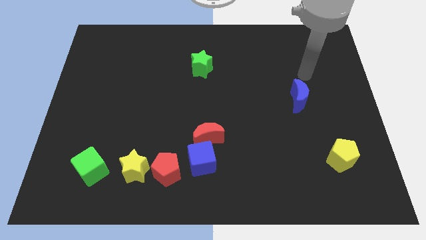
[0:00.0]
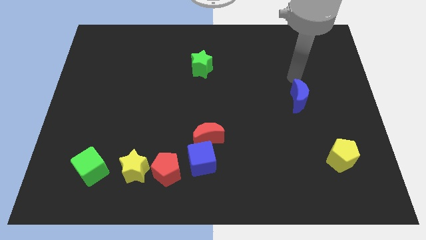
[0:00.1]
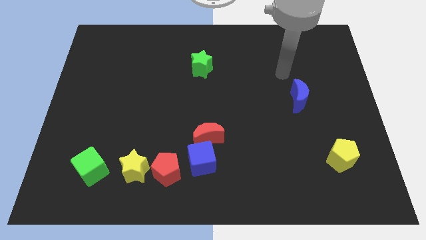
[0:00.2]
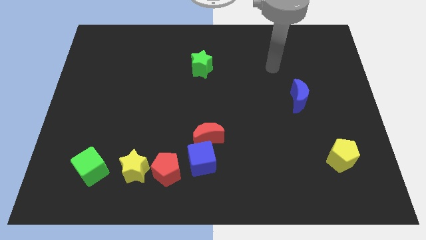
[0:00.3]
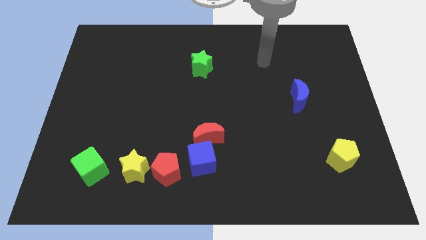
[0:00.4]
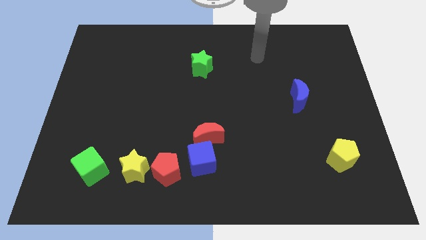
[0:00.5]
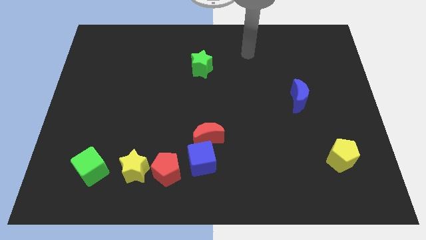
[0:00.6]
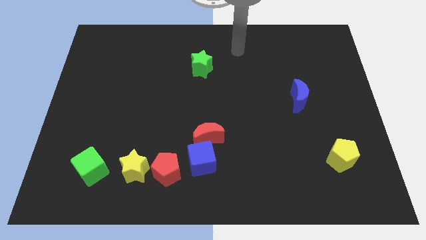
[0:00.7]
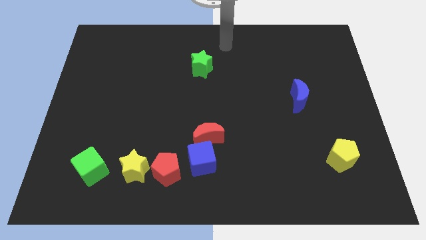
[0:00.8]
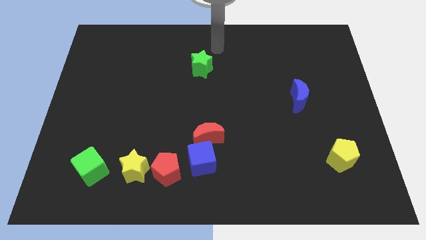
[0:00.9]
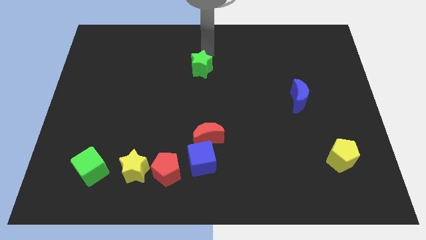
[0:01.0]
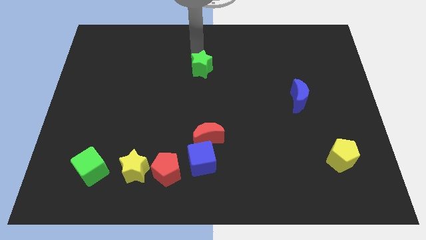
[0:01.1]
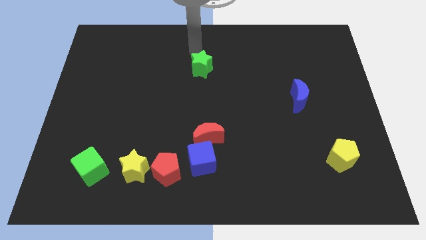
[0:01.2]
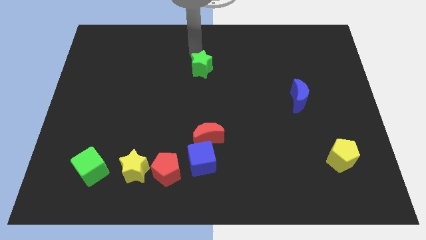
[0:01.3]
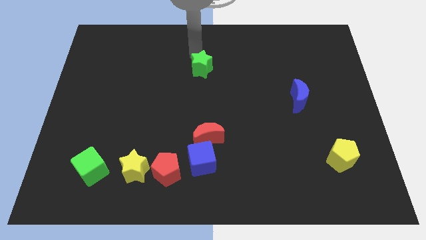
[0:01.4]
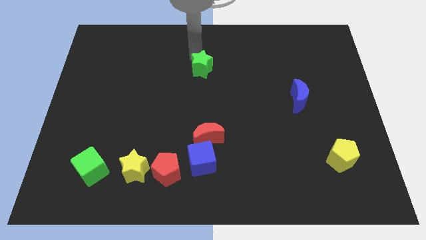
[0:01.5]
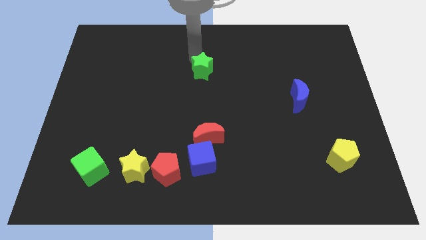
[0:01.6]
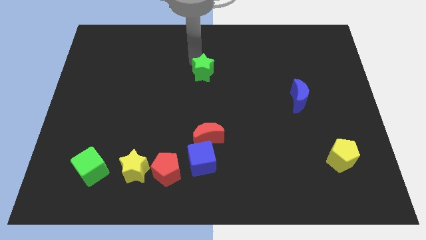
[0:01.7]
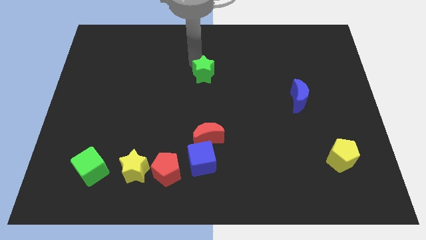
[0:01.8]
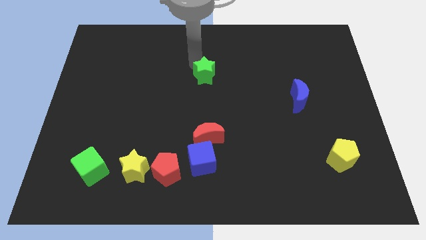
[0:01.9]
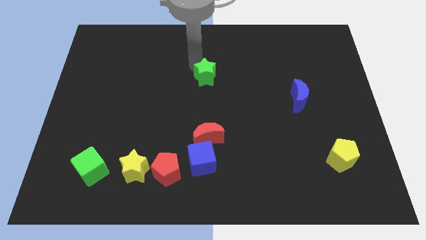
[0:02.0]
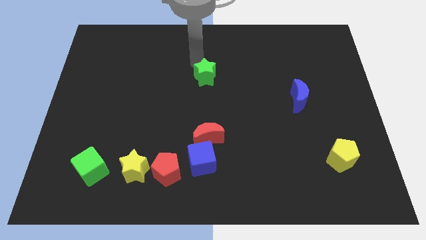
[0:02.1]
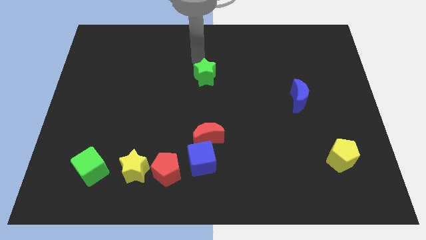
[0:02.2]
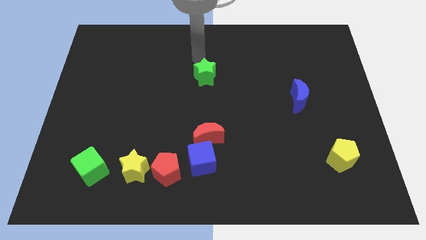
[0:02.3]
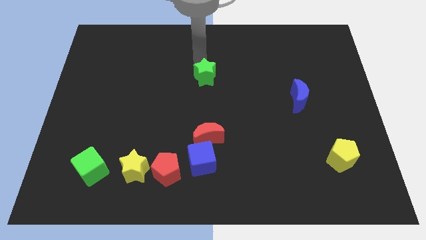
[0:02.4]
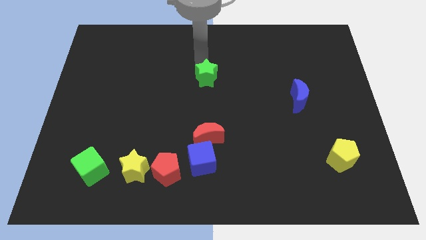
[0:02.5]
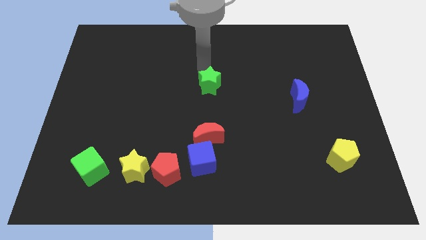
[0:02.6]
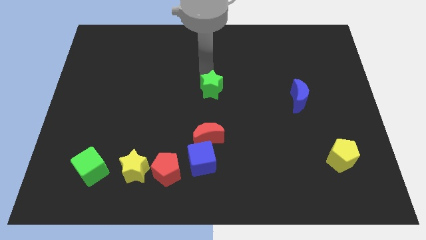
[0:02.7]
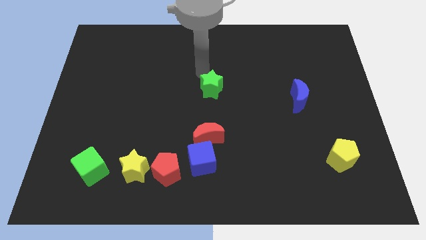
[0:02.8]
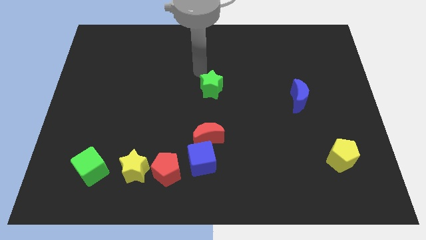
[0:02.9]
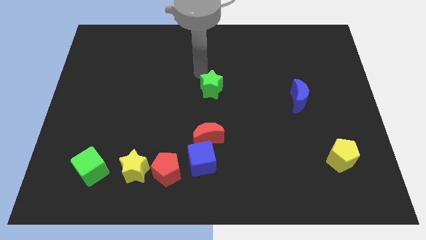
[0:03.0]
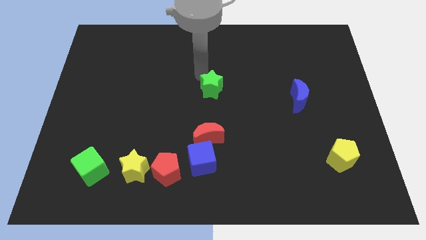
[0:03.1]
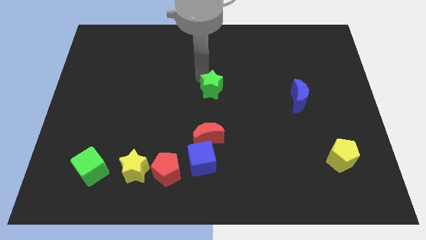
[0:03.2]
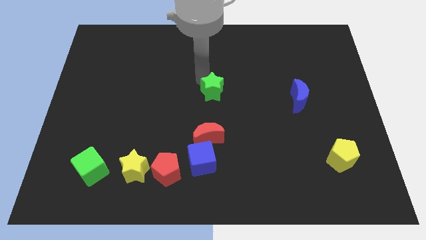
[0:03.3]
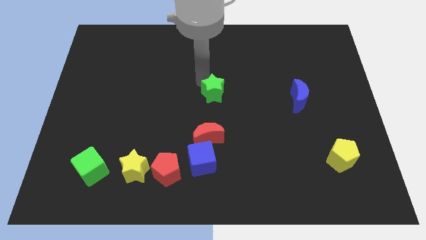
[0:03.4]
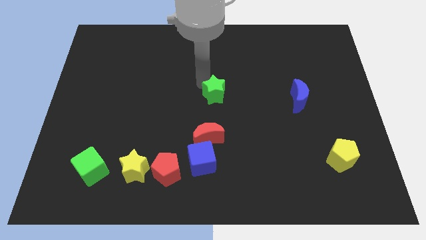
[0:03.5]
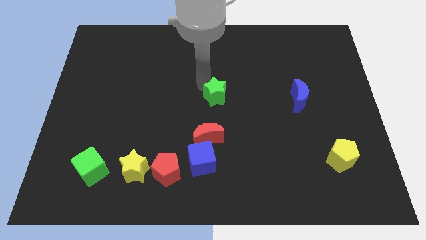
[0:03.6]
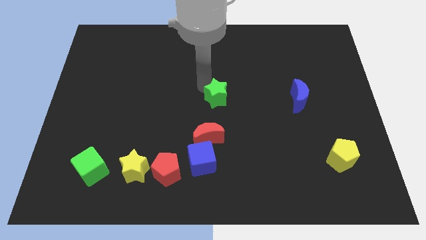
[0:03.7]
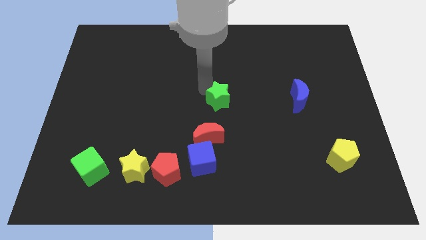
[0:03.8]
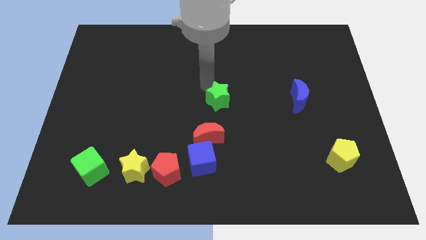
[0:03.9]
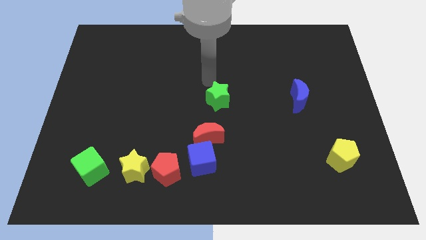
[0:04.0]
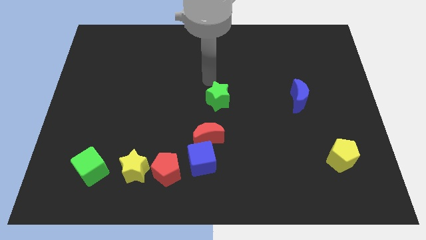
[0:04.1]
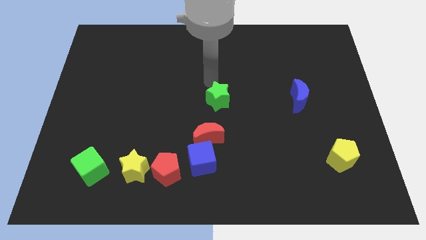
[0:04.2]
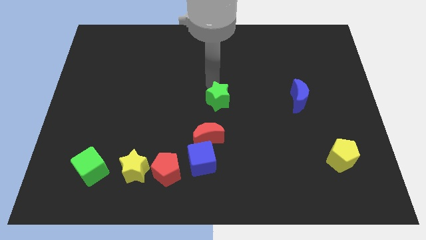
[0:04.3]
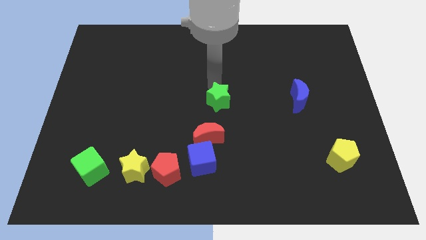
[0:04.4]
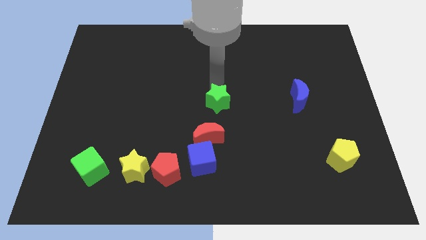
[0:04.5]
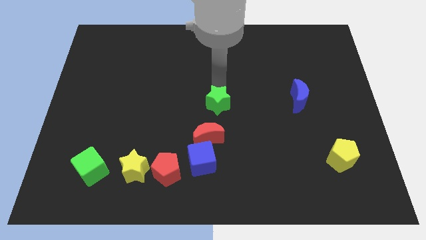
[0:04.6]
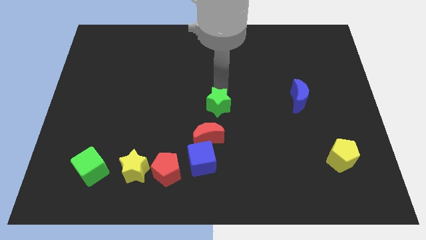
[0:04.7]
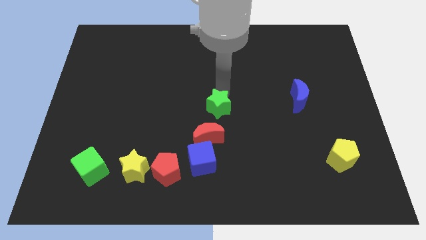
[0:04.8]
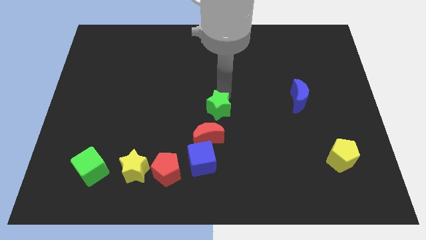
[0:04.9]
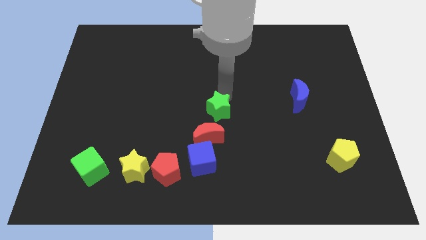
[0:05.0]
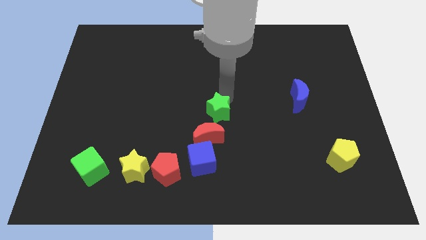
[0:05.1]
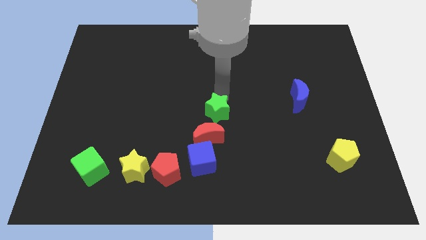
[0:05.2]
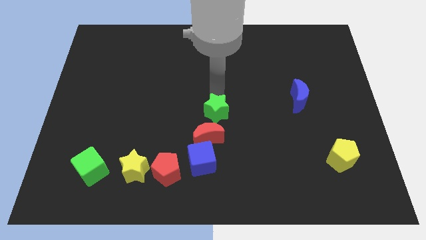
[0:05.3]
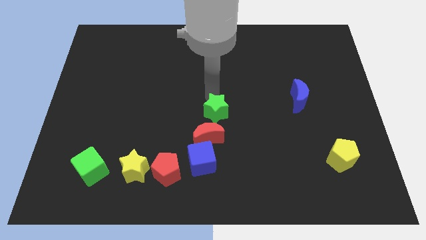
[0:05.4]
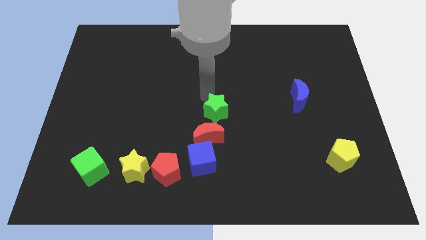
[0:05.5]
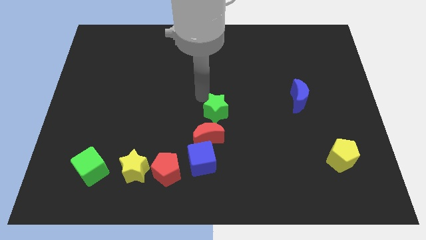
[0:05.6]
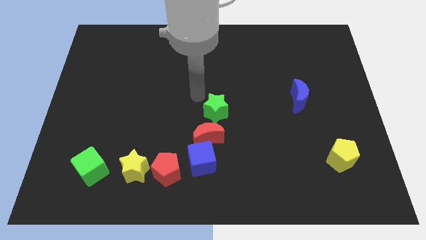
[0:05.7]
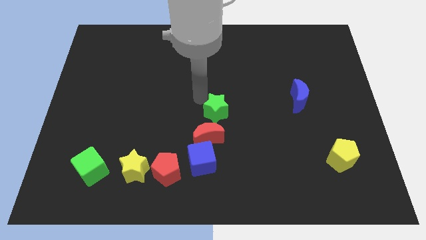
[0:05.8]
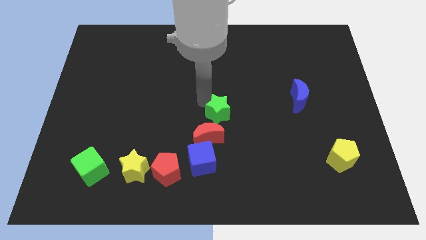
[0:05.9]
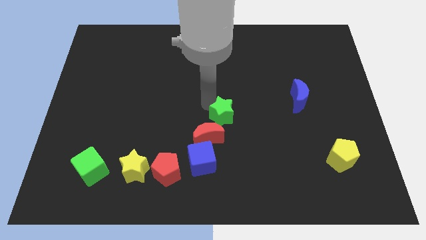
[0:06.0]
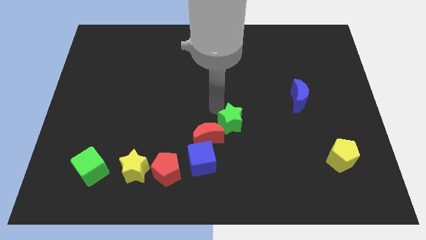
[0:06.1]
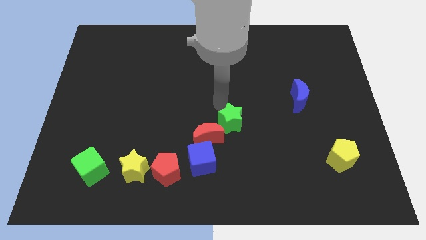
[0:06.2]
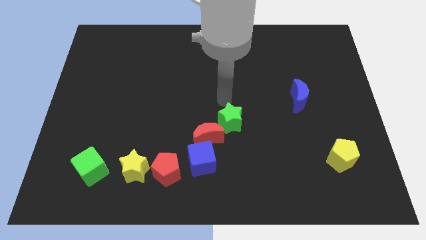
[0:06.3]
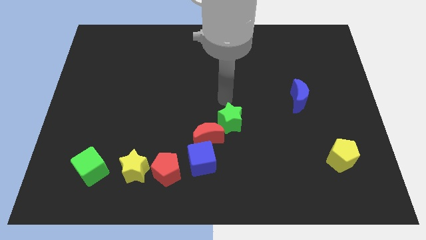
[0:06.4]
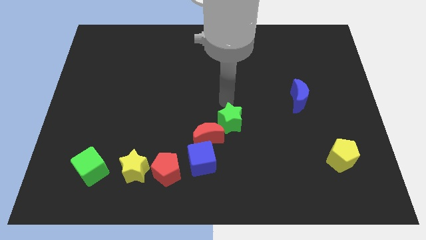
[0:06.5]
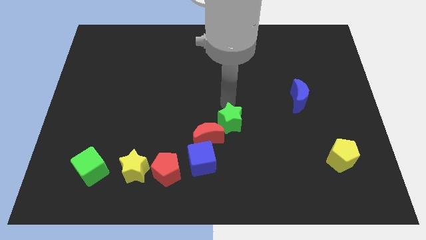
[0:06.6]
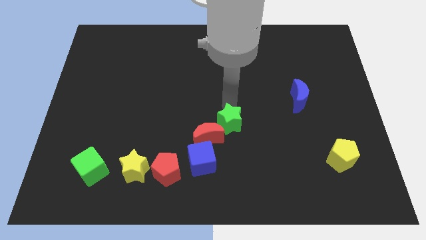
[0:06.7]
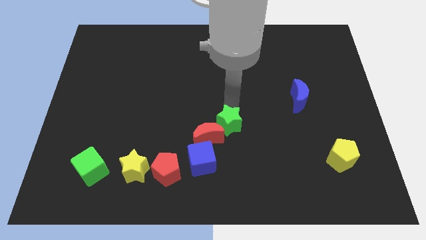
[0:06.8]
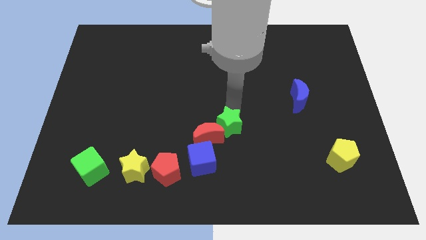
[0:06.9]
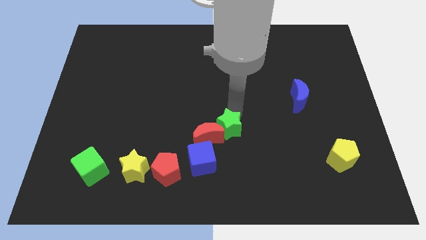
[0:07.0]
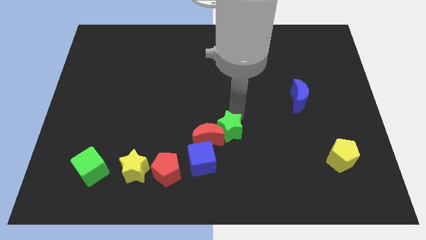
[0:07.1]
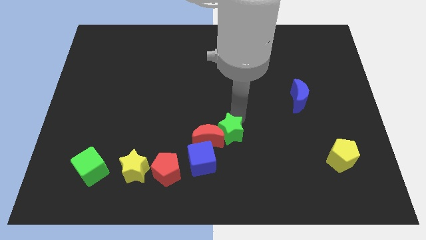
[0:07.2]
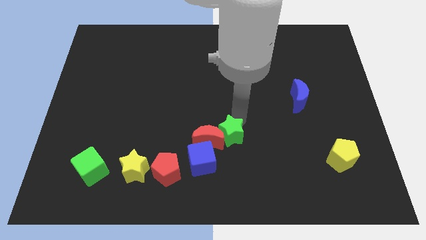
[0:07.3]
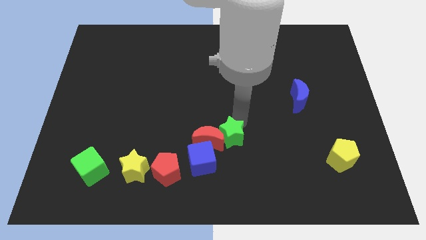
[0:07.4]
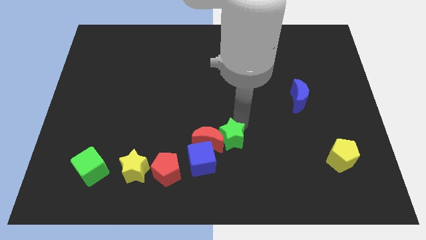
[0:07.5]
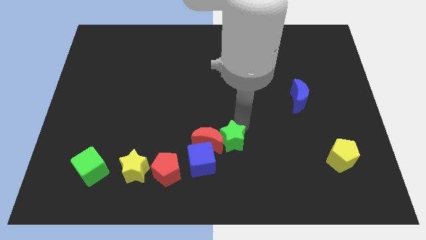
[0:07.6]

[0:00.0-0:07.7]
move the green star down

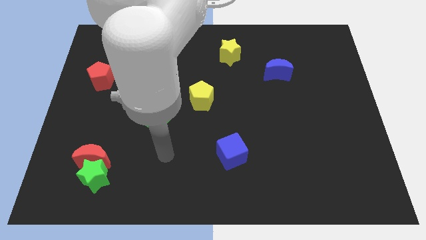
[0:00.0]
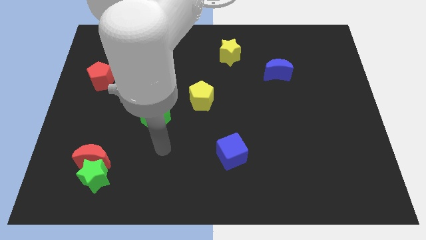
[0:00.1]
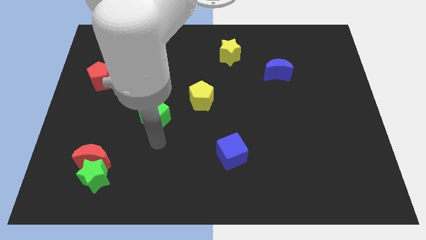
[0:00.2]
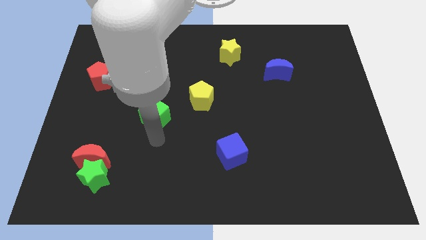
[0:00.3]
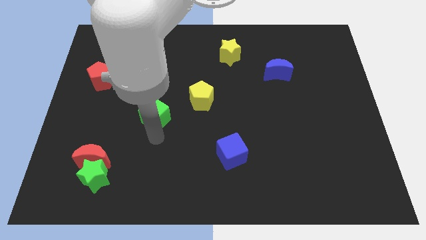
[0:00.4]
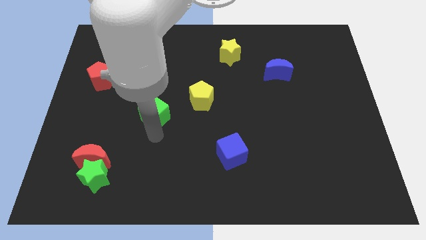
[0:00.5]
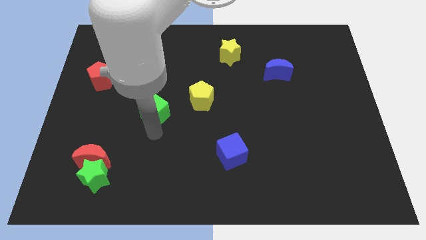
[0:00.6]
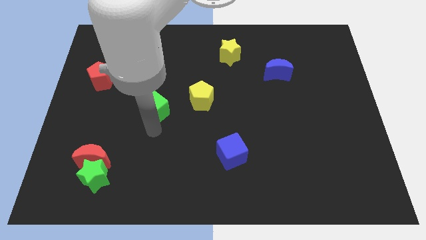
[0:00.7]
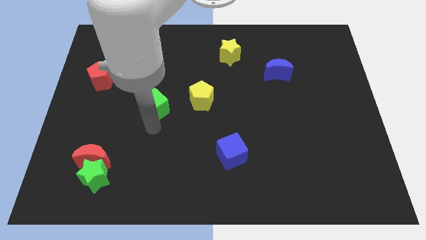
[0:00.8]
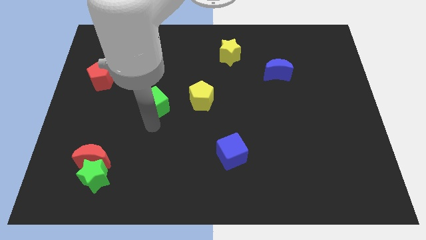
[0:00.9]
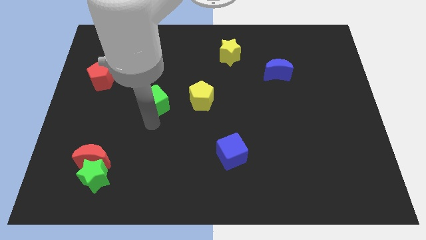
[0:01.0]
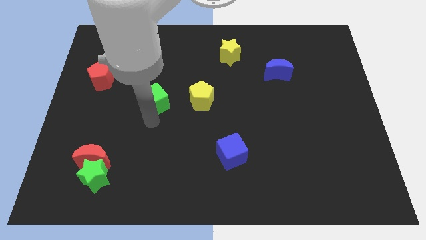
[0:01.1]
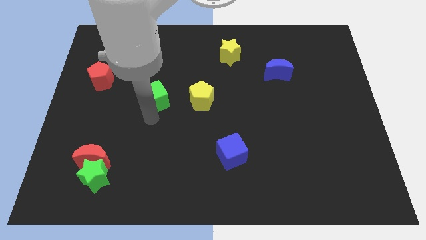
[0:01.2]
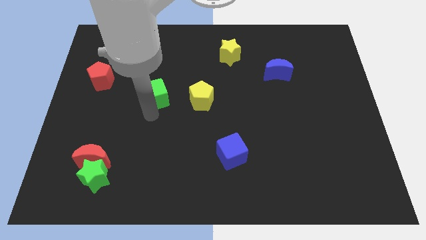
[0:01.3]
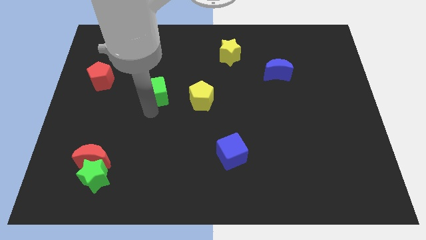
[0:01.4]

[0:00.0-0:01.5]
slightly move the green cube up
